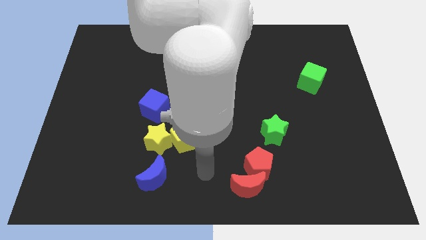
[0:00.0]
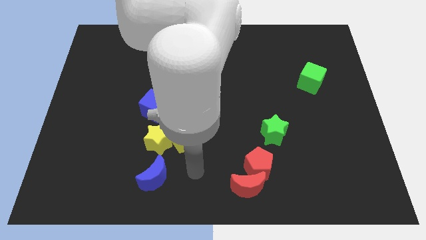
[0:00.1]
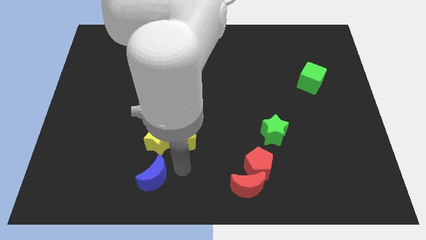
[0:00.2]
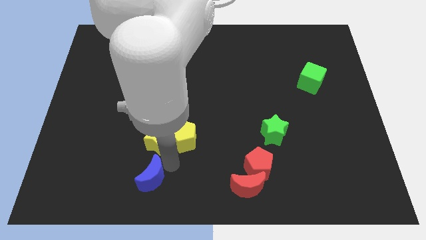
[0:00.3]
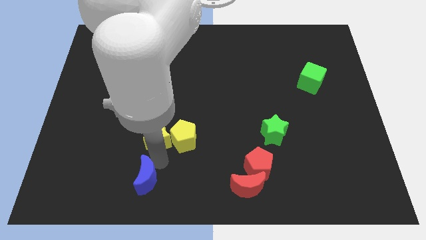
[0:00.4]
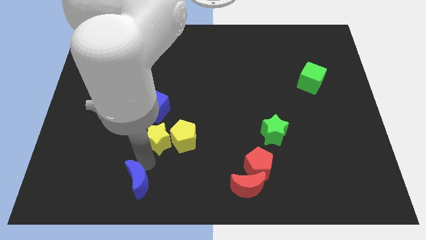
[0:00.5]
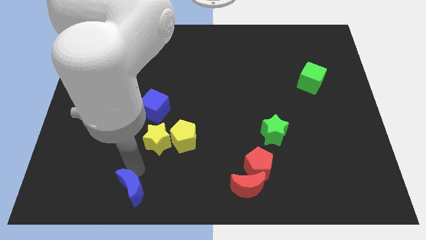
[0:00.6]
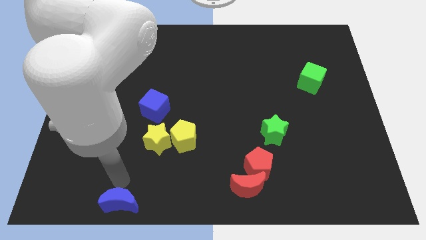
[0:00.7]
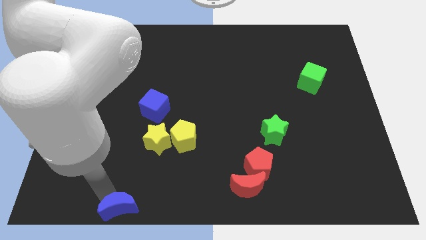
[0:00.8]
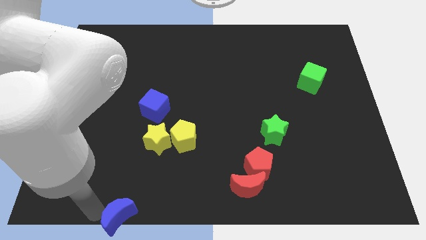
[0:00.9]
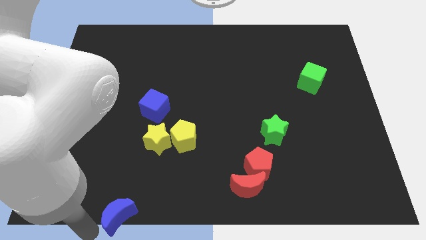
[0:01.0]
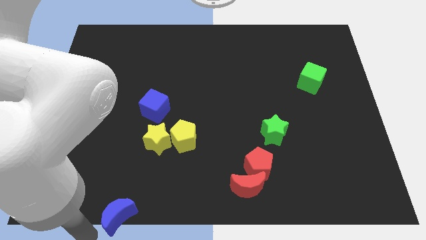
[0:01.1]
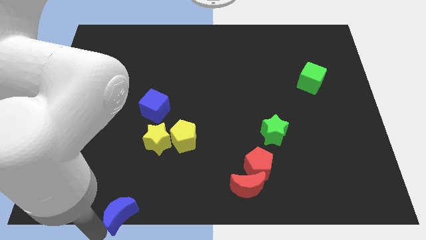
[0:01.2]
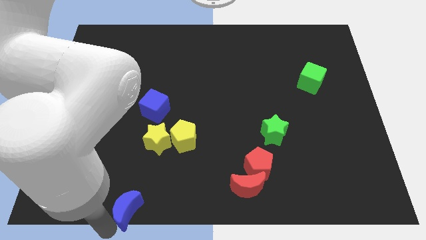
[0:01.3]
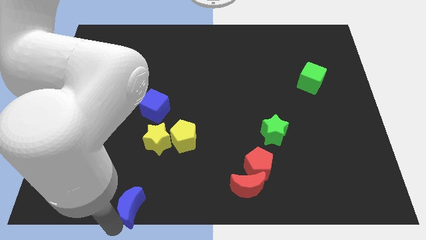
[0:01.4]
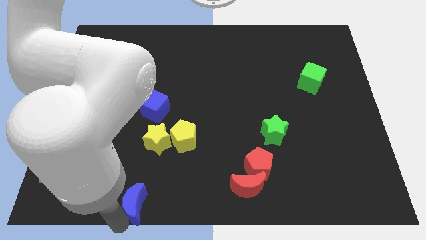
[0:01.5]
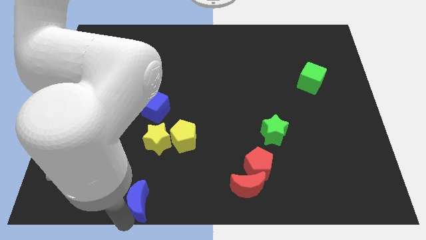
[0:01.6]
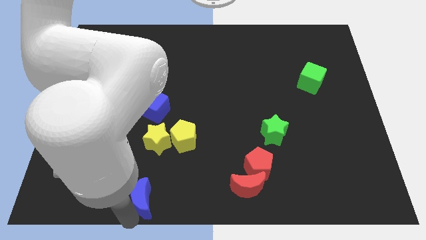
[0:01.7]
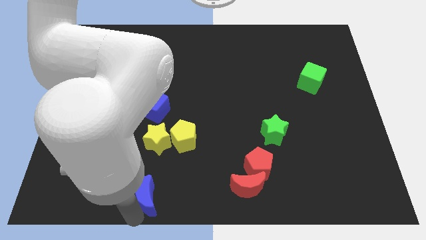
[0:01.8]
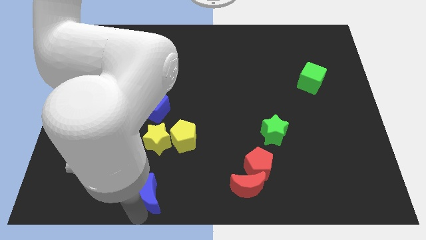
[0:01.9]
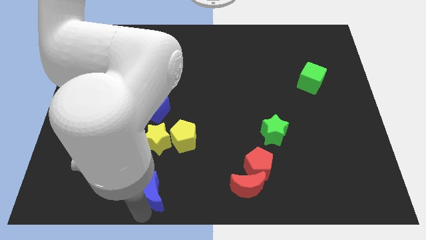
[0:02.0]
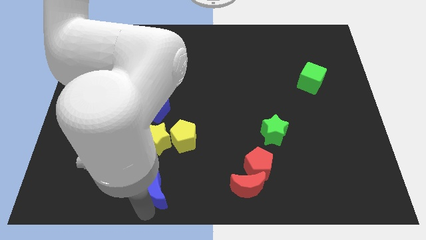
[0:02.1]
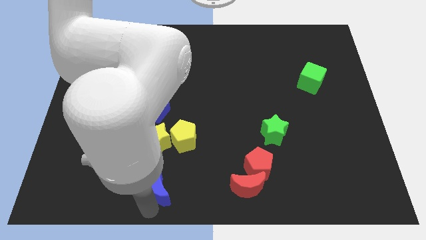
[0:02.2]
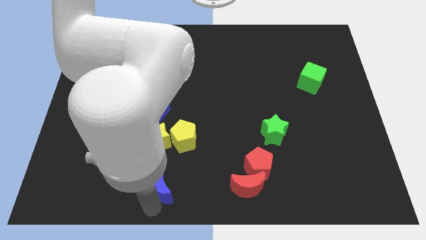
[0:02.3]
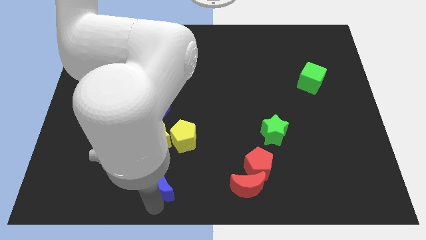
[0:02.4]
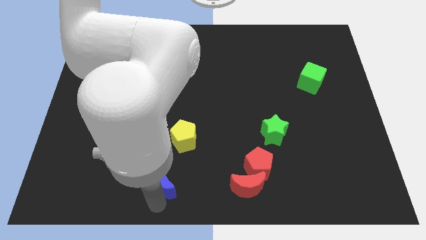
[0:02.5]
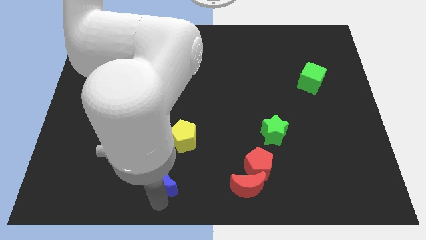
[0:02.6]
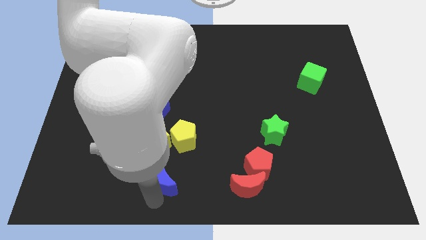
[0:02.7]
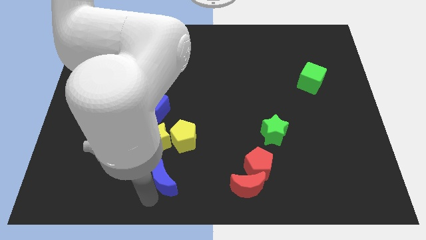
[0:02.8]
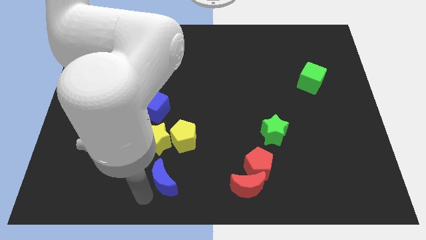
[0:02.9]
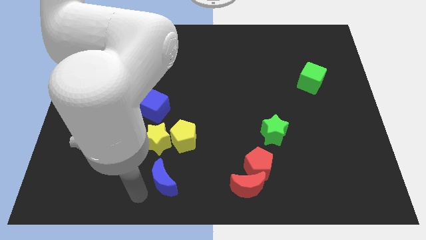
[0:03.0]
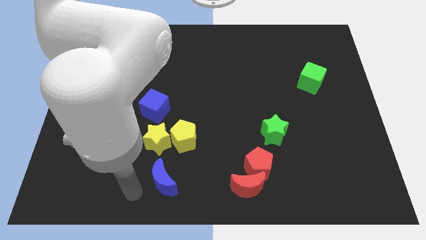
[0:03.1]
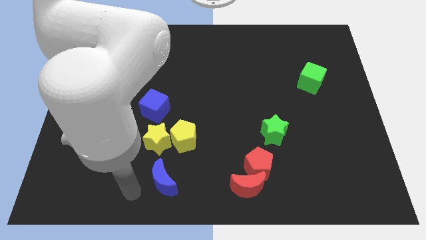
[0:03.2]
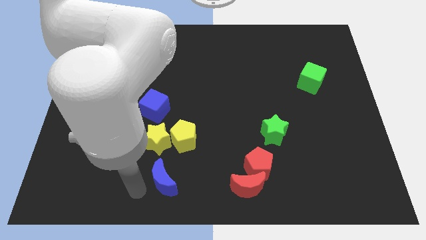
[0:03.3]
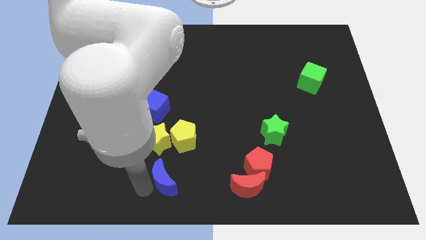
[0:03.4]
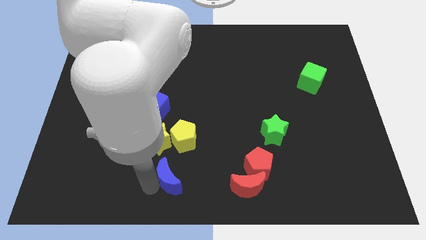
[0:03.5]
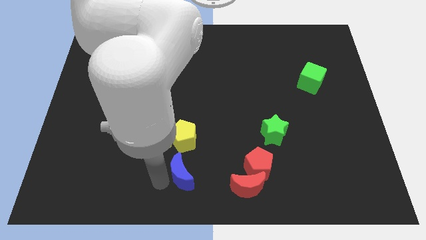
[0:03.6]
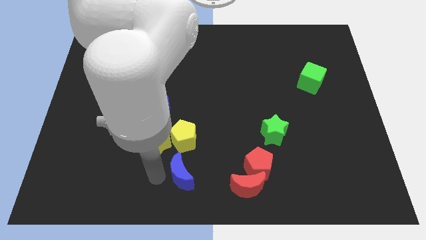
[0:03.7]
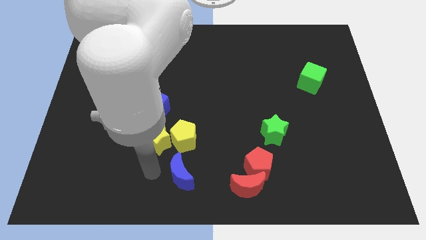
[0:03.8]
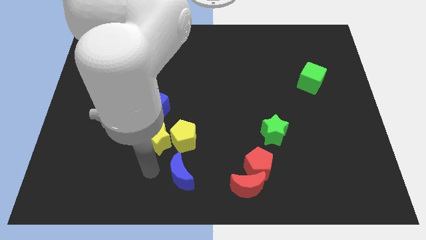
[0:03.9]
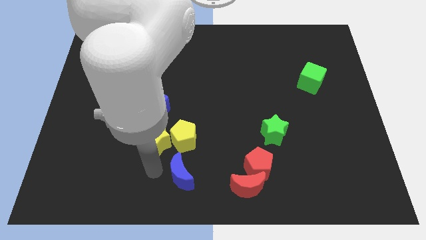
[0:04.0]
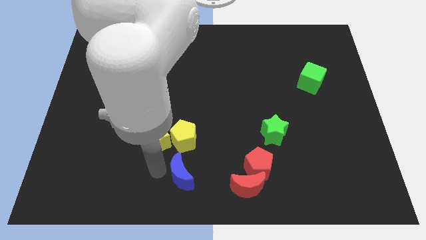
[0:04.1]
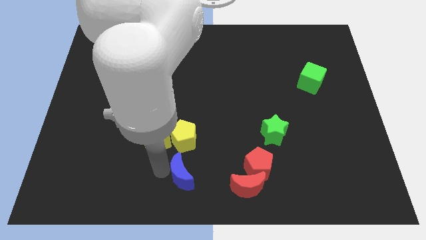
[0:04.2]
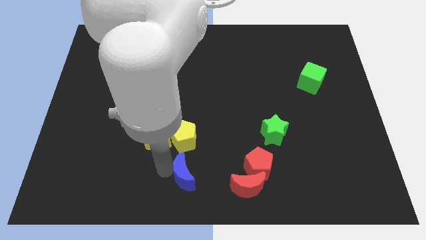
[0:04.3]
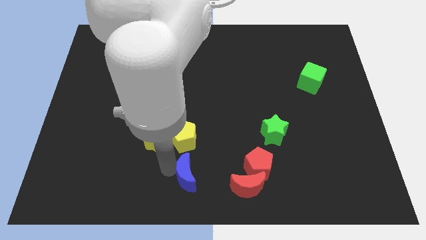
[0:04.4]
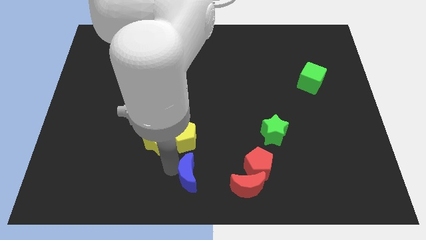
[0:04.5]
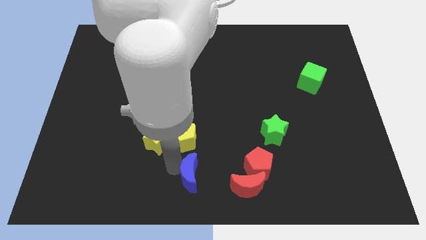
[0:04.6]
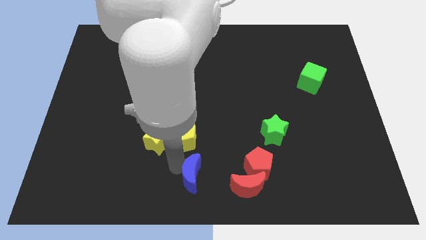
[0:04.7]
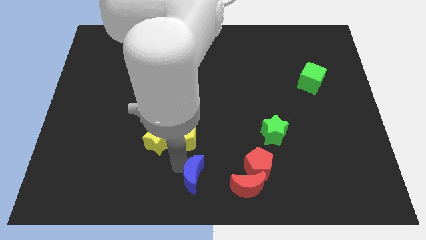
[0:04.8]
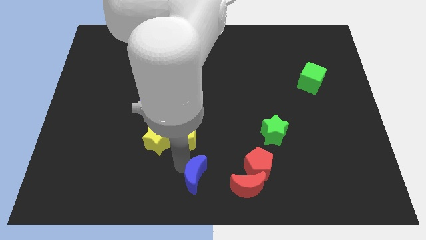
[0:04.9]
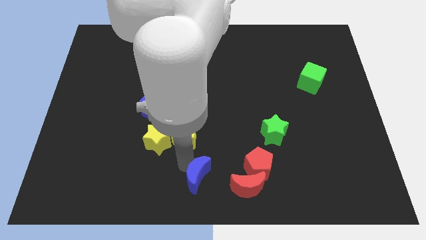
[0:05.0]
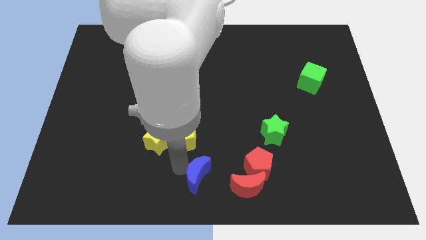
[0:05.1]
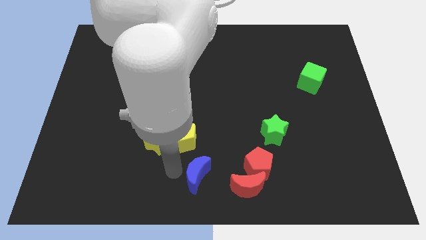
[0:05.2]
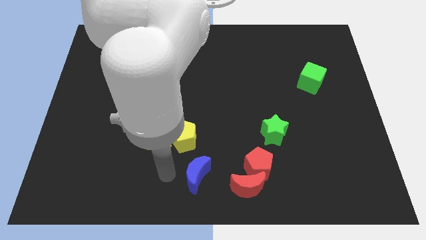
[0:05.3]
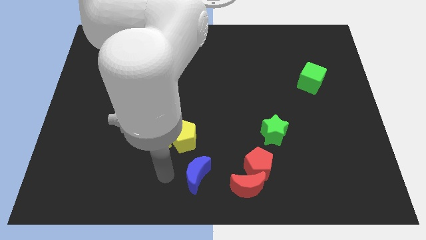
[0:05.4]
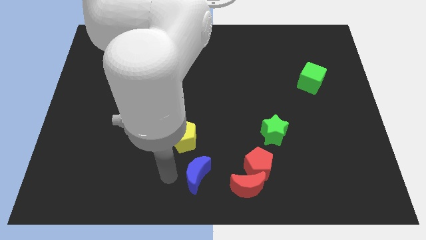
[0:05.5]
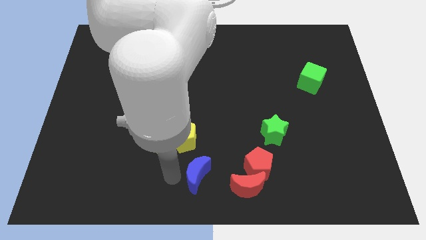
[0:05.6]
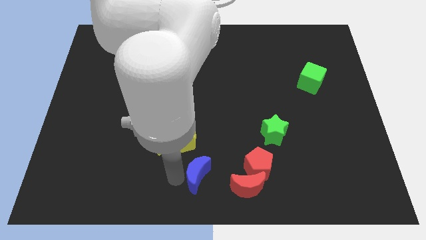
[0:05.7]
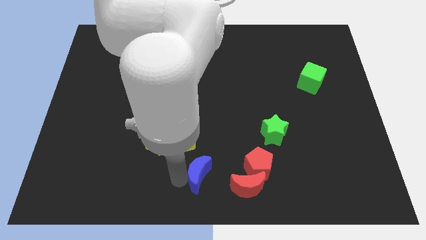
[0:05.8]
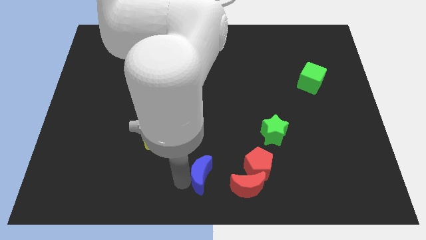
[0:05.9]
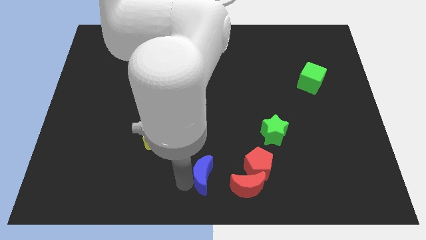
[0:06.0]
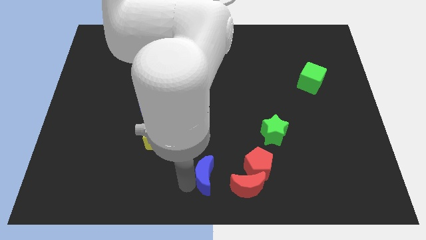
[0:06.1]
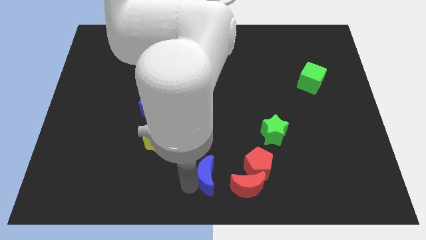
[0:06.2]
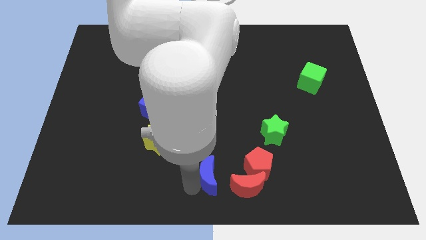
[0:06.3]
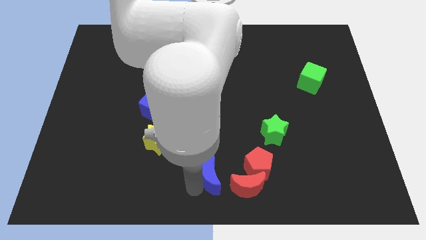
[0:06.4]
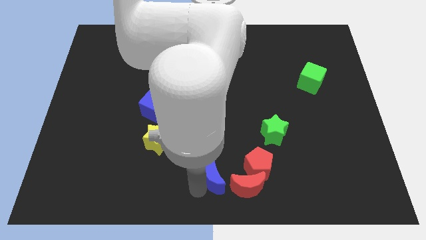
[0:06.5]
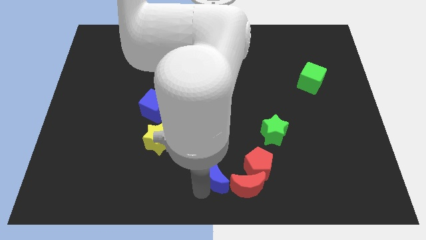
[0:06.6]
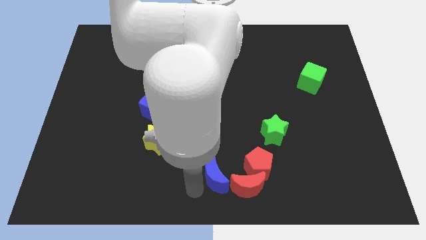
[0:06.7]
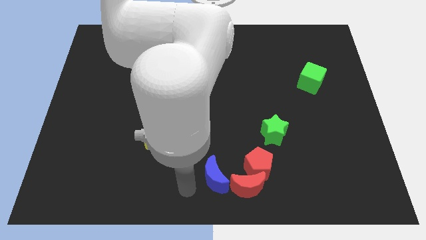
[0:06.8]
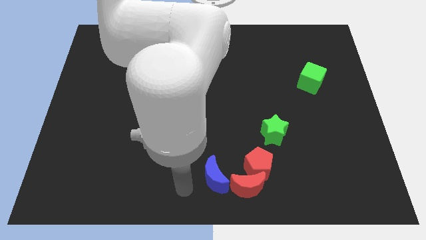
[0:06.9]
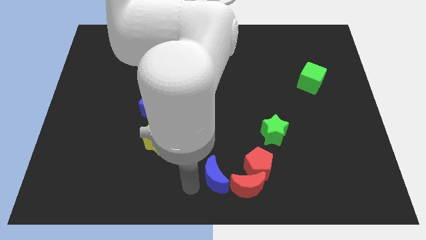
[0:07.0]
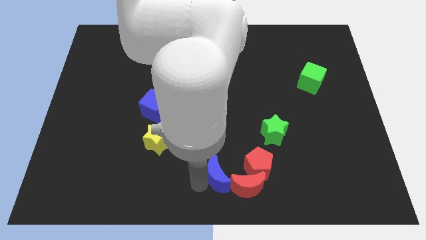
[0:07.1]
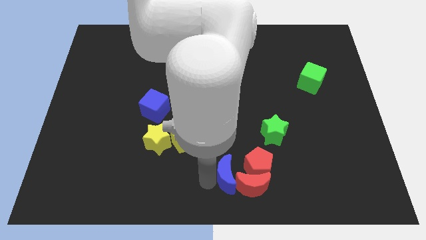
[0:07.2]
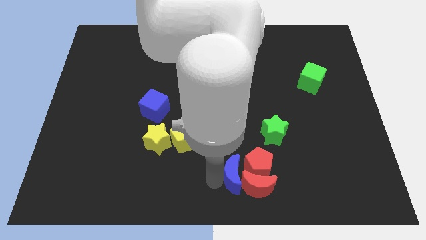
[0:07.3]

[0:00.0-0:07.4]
move the blue moon to the red pentagon
